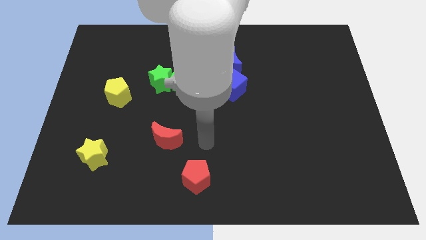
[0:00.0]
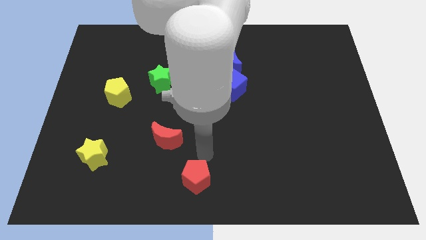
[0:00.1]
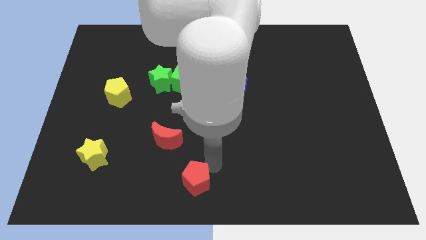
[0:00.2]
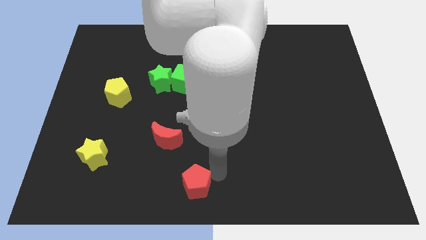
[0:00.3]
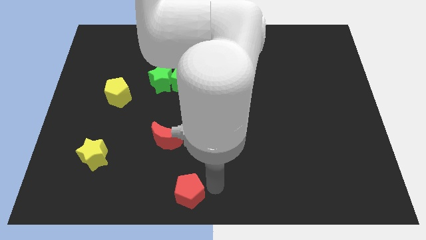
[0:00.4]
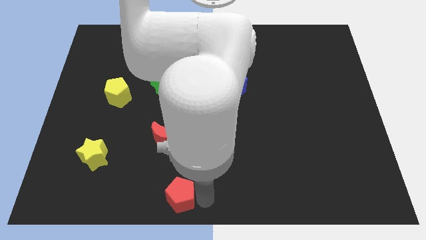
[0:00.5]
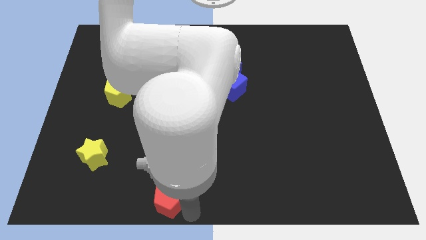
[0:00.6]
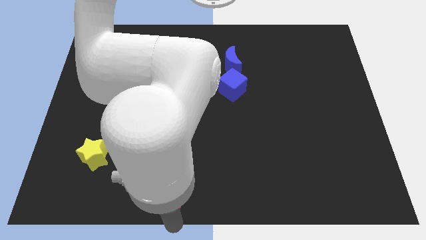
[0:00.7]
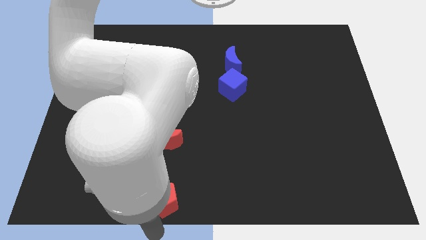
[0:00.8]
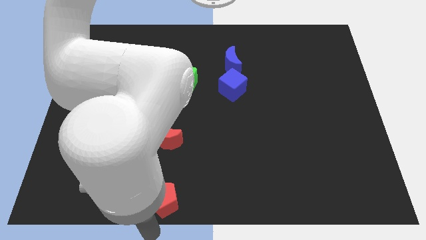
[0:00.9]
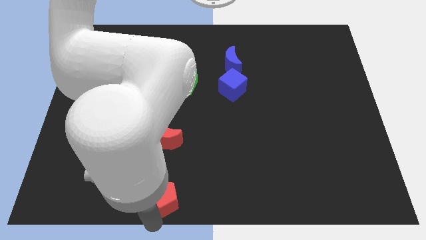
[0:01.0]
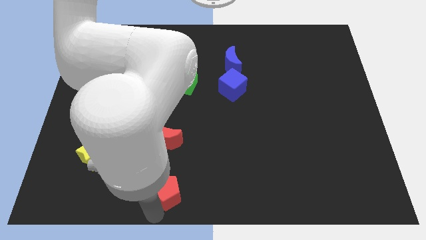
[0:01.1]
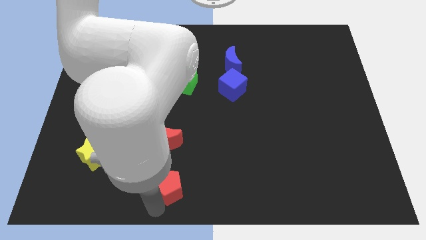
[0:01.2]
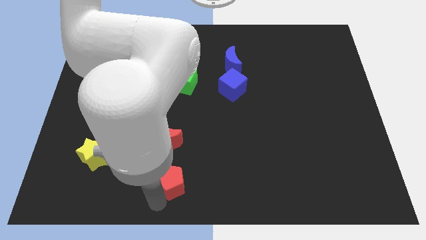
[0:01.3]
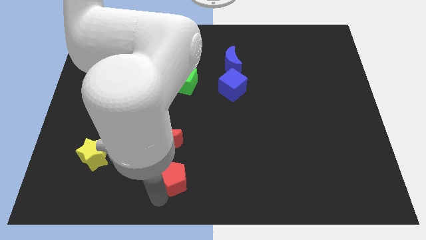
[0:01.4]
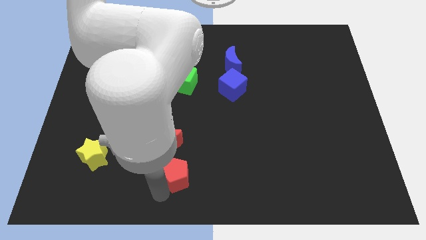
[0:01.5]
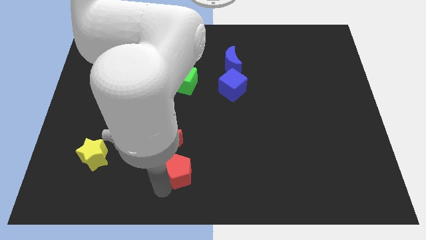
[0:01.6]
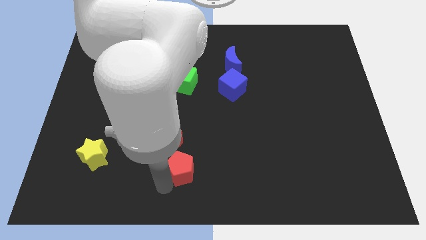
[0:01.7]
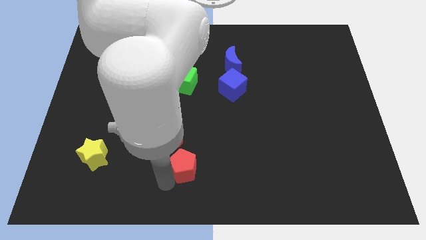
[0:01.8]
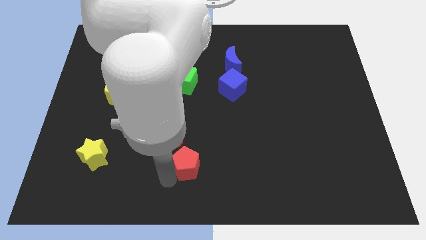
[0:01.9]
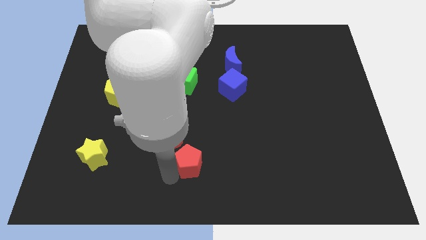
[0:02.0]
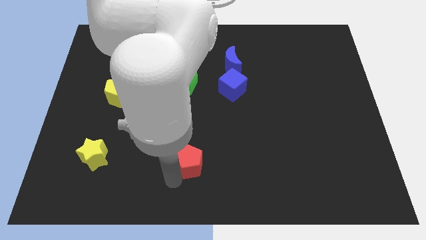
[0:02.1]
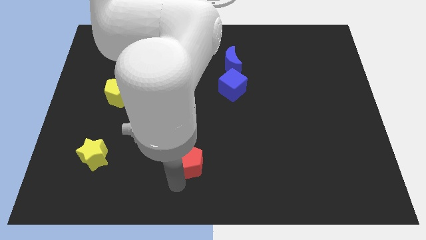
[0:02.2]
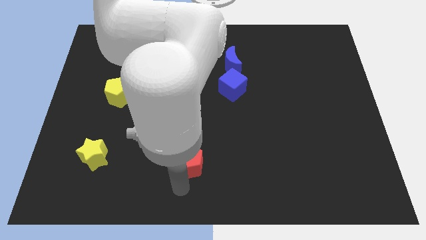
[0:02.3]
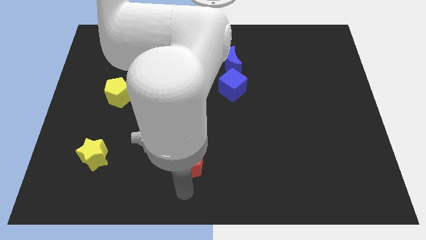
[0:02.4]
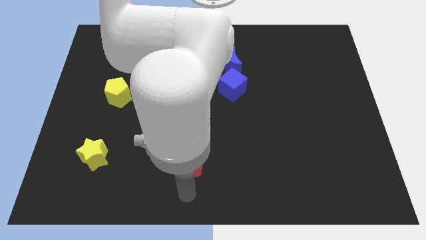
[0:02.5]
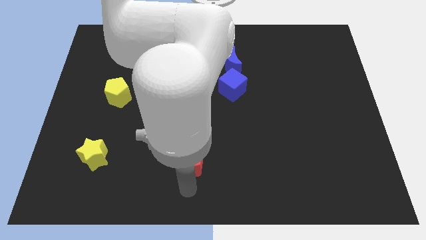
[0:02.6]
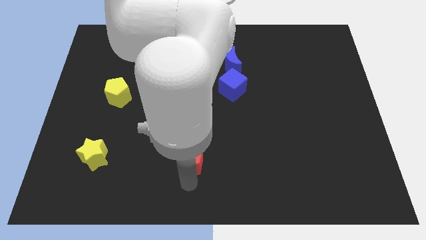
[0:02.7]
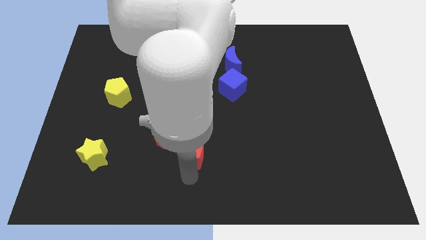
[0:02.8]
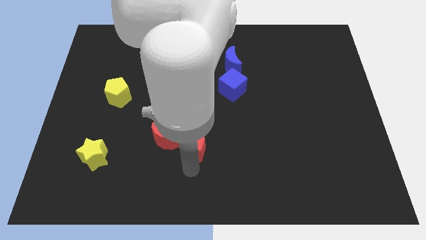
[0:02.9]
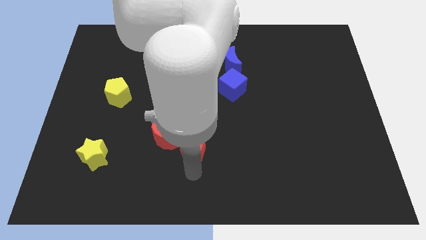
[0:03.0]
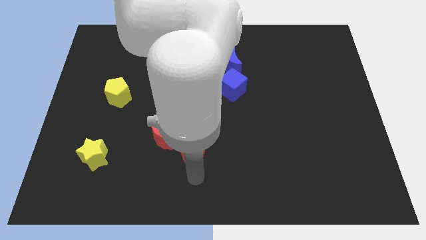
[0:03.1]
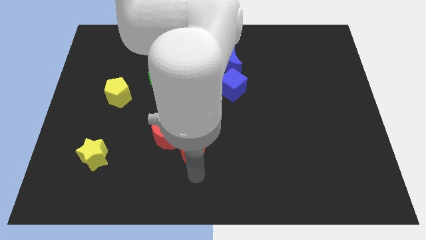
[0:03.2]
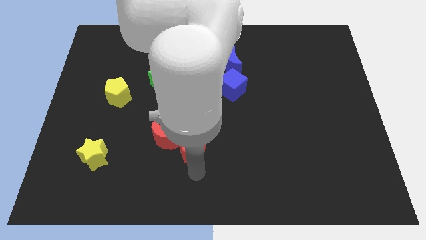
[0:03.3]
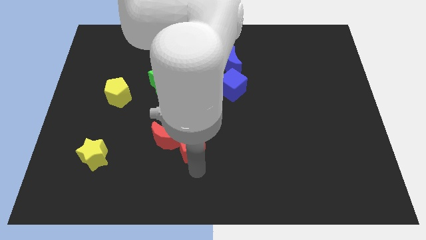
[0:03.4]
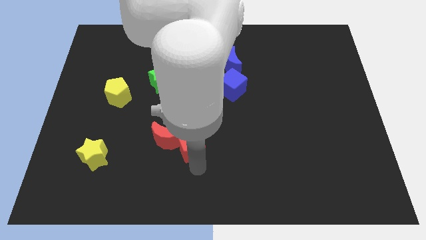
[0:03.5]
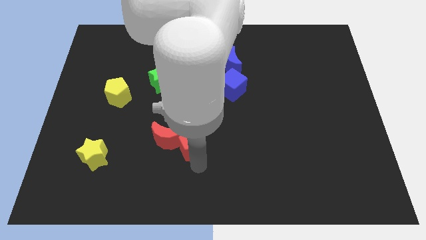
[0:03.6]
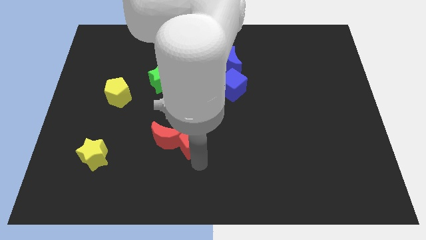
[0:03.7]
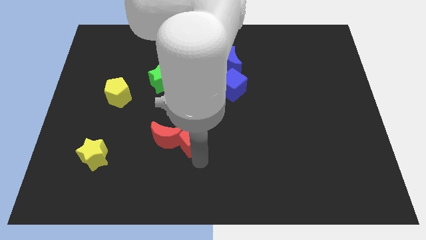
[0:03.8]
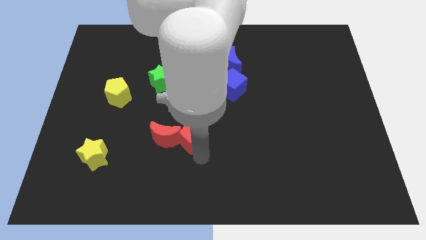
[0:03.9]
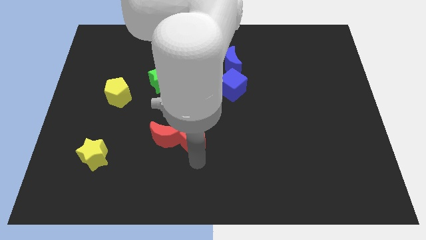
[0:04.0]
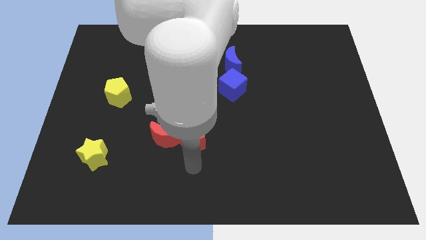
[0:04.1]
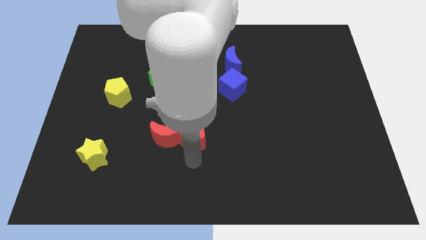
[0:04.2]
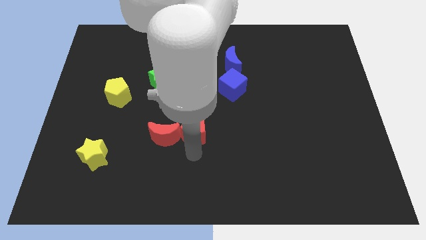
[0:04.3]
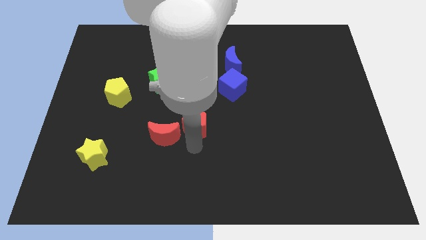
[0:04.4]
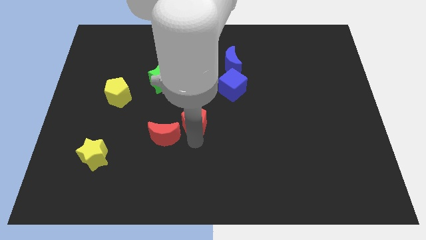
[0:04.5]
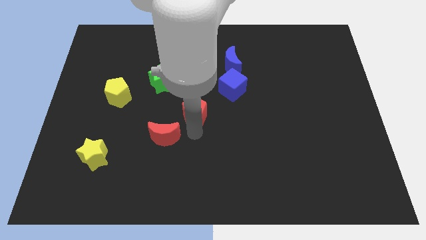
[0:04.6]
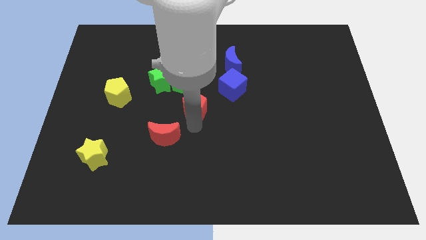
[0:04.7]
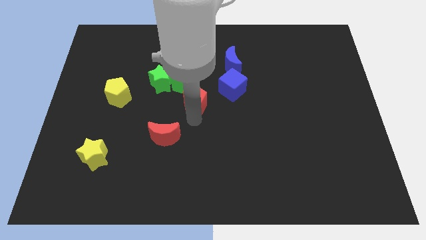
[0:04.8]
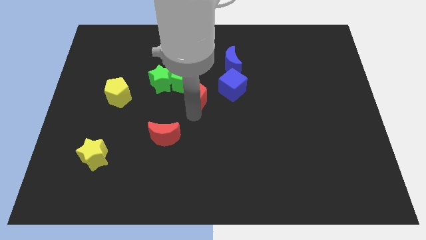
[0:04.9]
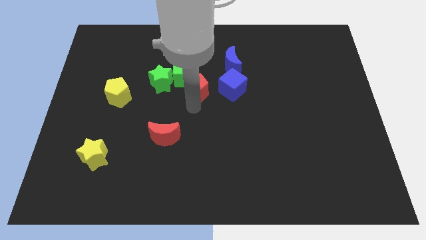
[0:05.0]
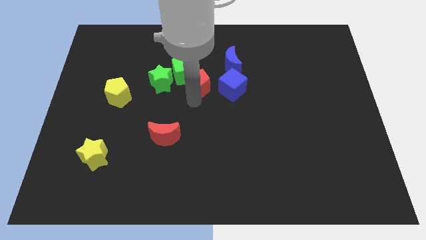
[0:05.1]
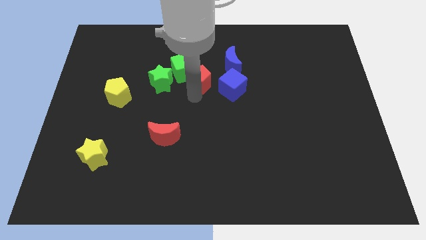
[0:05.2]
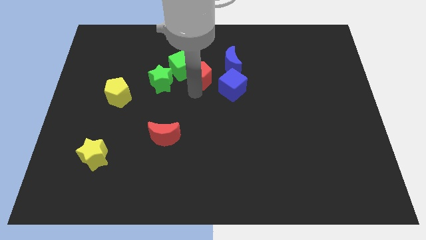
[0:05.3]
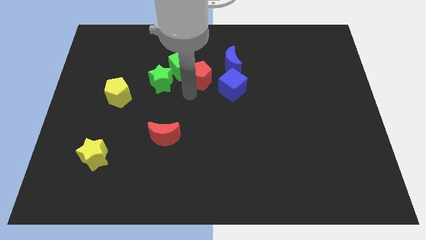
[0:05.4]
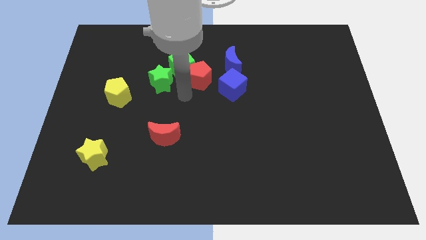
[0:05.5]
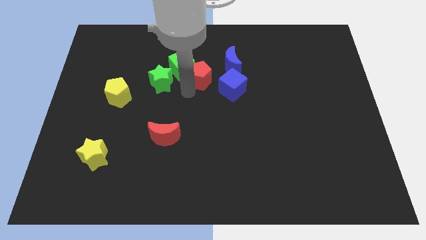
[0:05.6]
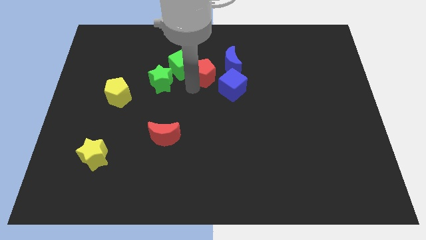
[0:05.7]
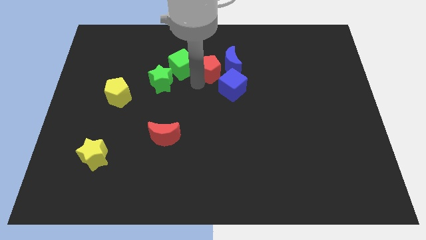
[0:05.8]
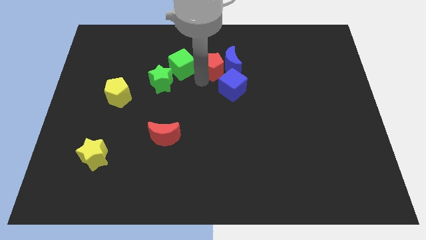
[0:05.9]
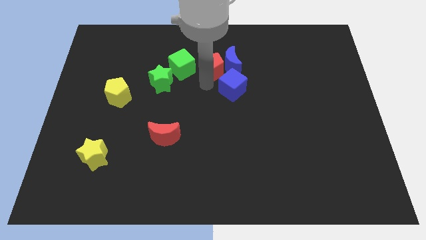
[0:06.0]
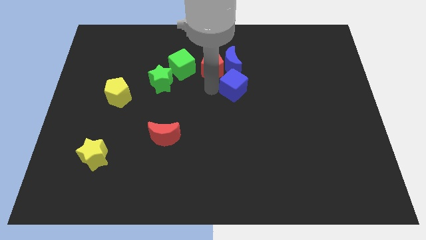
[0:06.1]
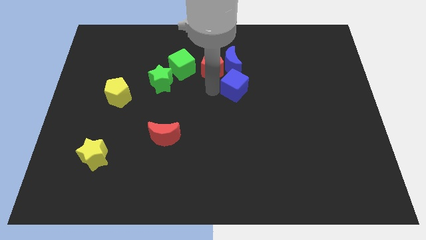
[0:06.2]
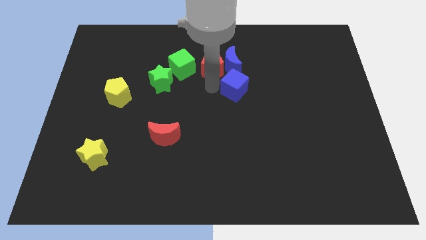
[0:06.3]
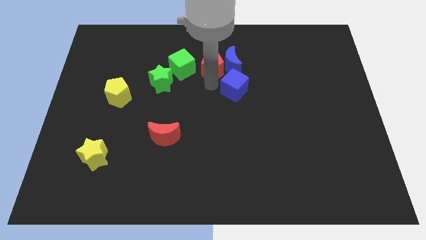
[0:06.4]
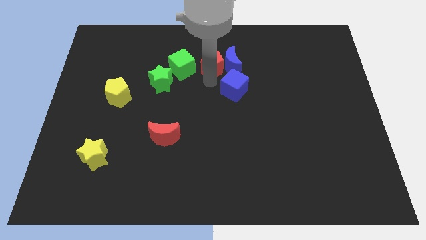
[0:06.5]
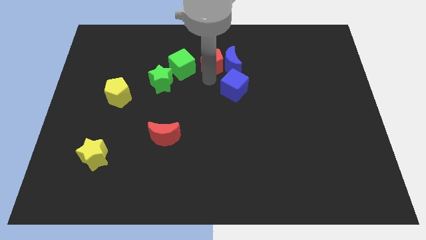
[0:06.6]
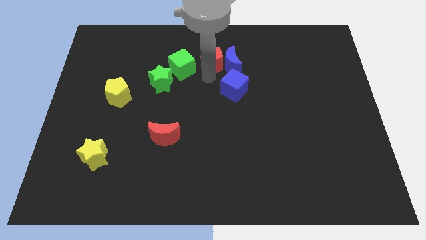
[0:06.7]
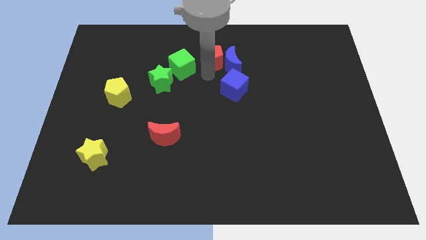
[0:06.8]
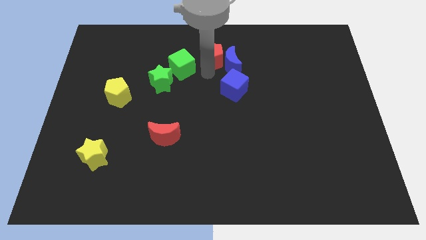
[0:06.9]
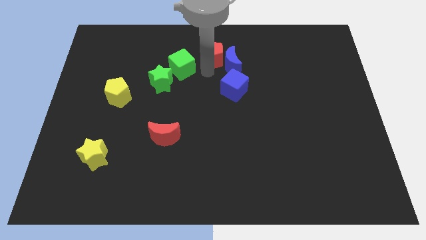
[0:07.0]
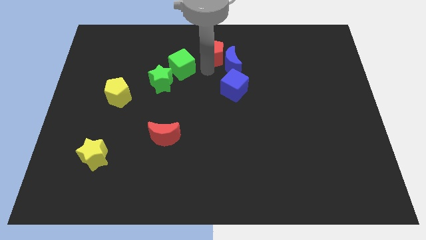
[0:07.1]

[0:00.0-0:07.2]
put the red pentagon to the top side

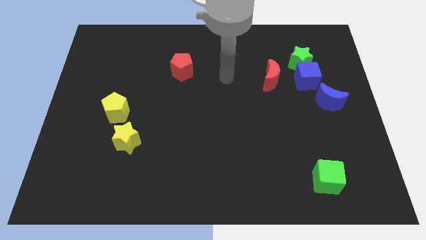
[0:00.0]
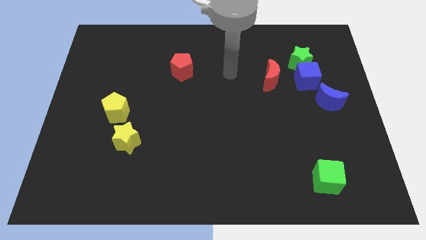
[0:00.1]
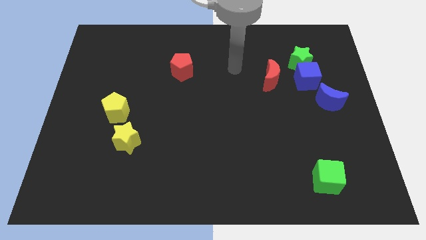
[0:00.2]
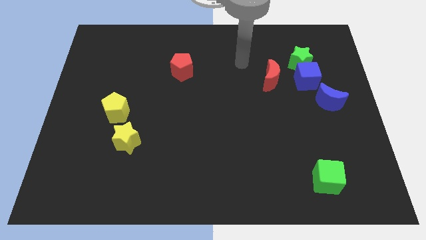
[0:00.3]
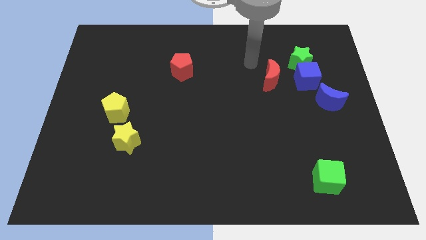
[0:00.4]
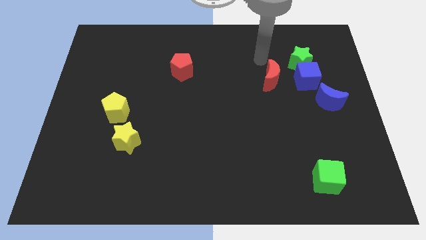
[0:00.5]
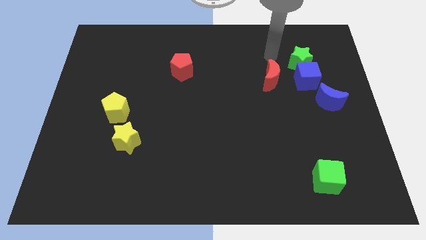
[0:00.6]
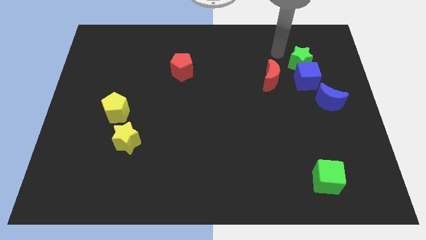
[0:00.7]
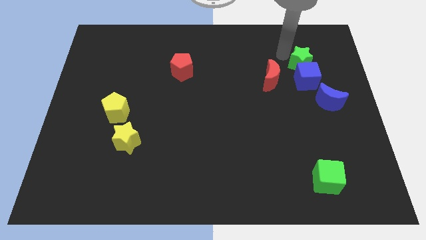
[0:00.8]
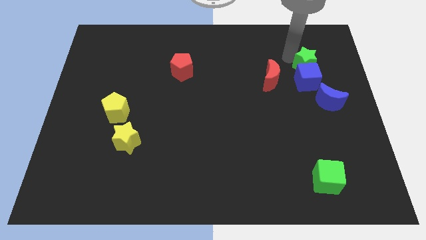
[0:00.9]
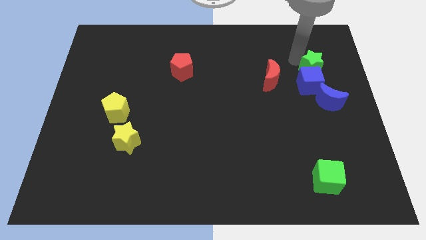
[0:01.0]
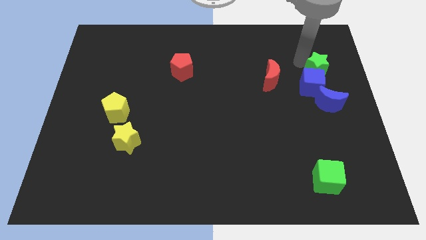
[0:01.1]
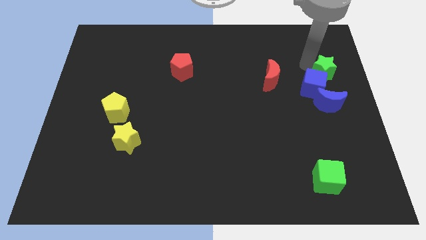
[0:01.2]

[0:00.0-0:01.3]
move the green star to the center right
